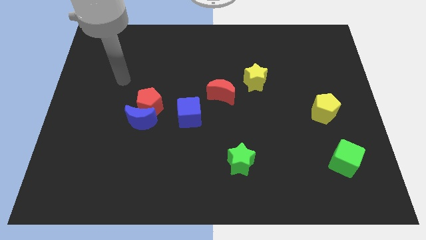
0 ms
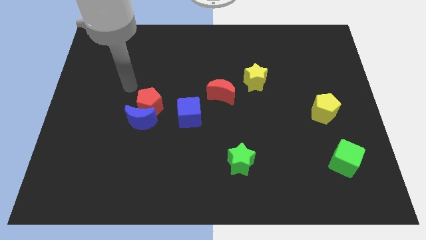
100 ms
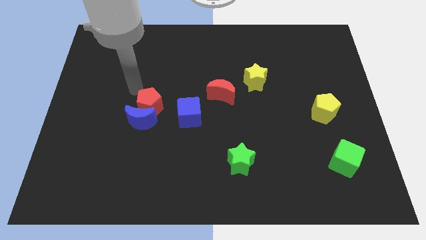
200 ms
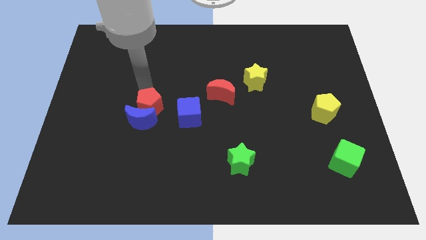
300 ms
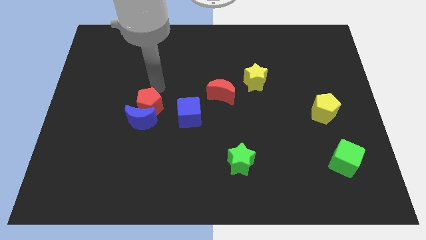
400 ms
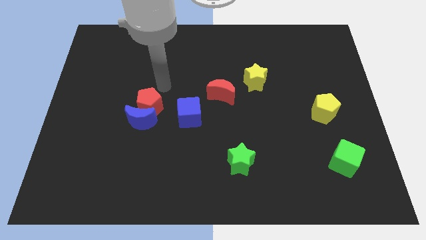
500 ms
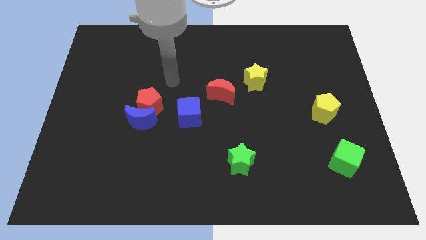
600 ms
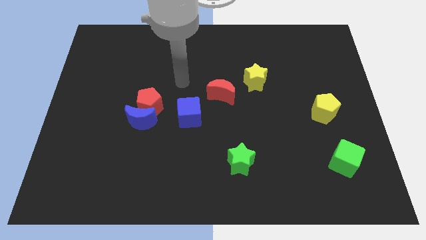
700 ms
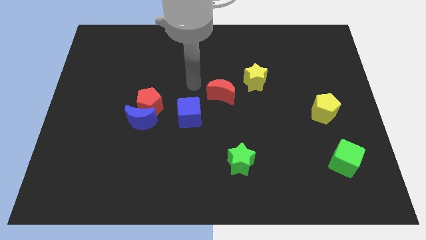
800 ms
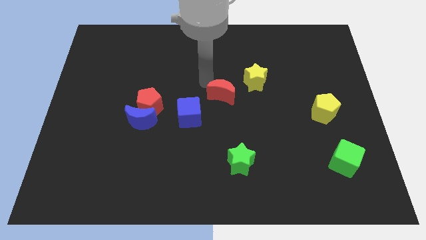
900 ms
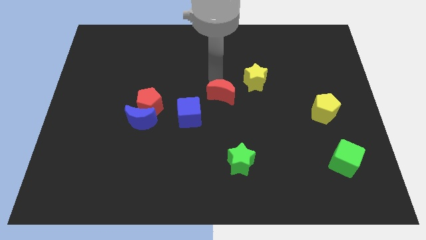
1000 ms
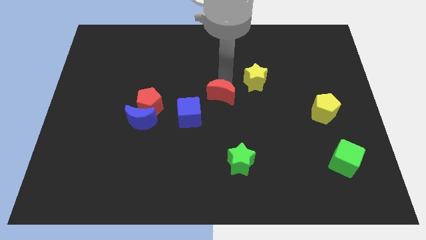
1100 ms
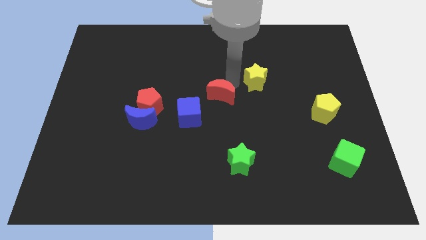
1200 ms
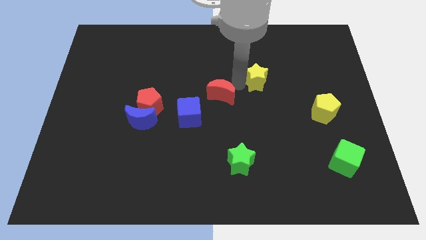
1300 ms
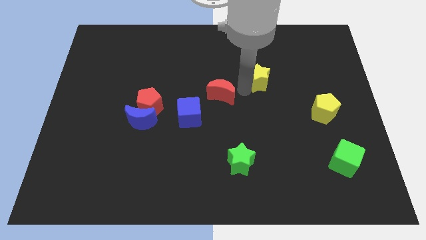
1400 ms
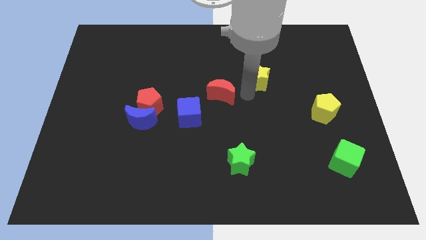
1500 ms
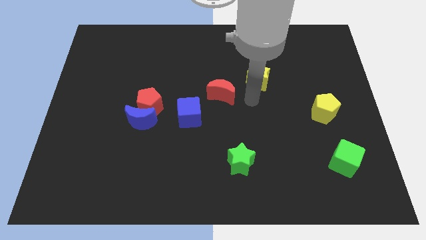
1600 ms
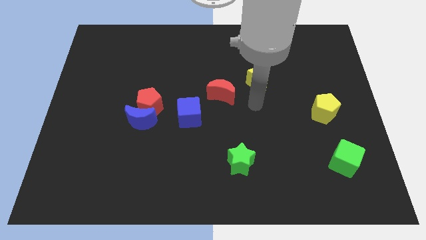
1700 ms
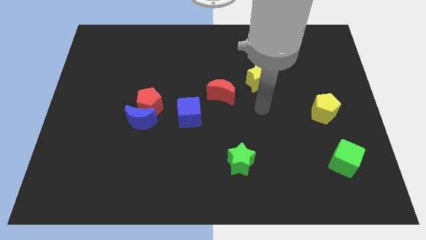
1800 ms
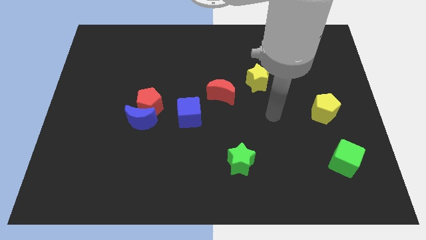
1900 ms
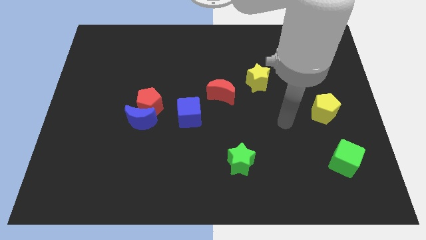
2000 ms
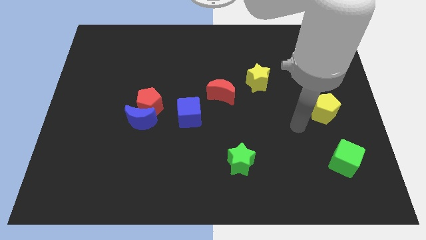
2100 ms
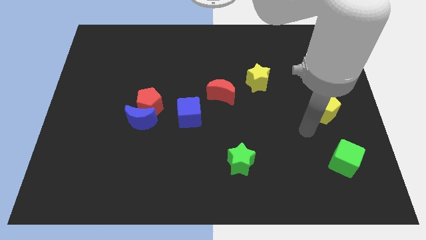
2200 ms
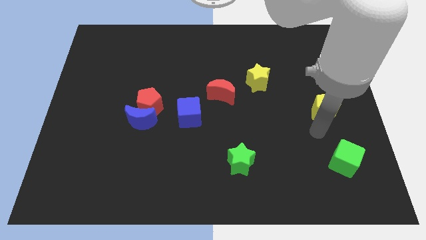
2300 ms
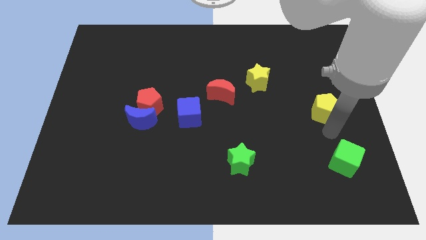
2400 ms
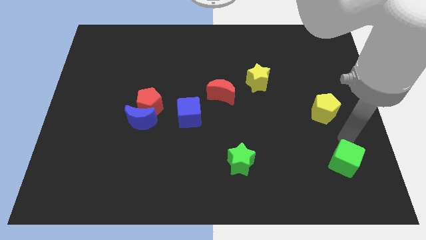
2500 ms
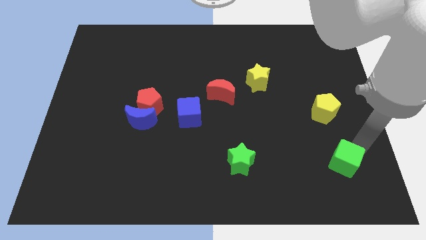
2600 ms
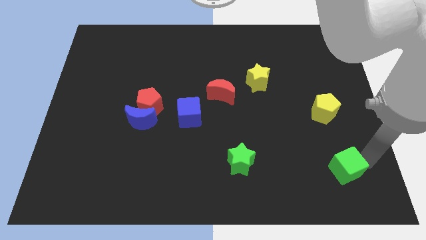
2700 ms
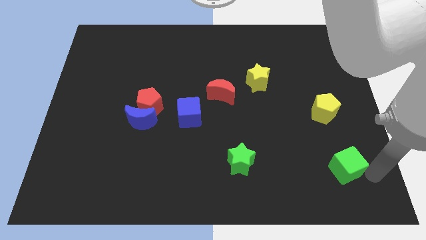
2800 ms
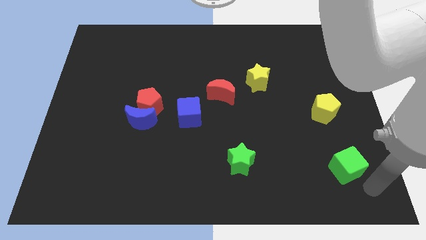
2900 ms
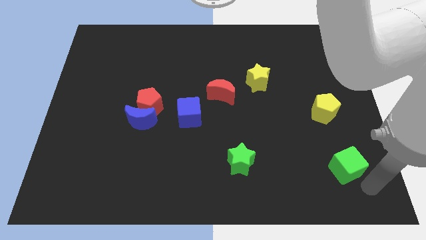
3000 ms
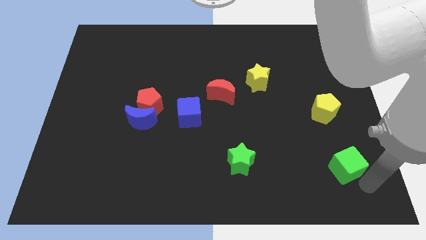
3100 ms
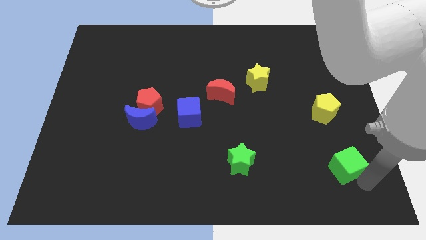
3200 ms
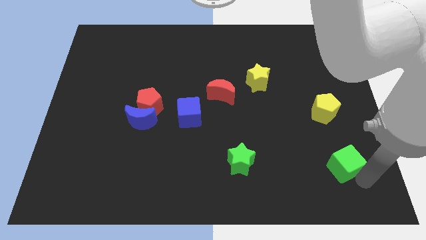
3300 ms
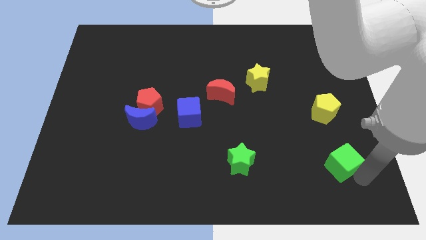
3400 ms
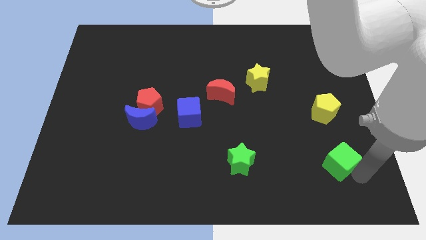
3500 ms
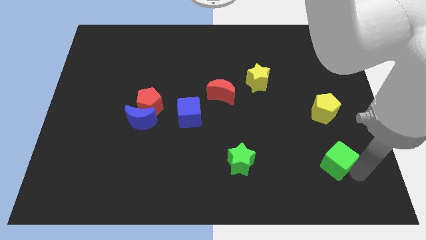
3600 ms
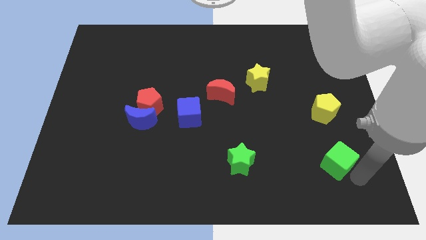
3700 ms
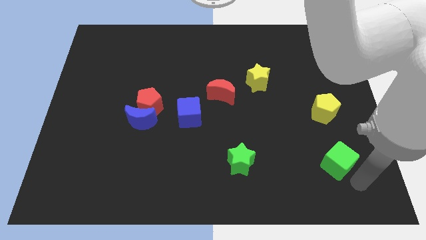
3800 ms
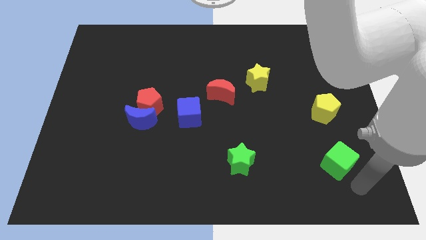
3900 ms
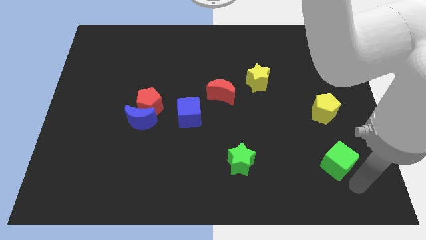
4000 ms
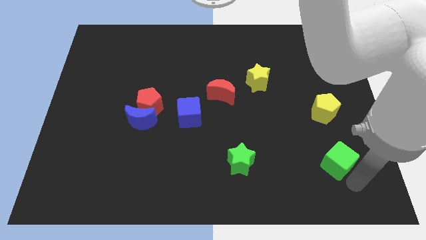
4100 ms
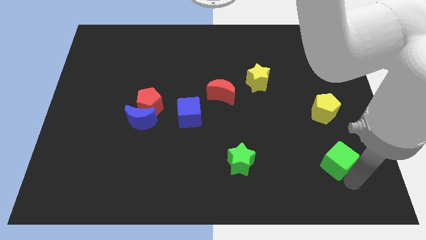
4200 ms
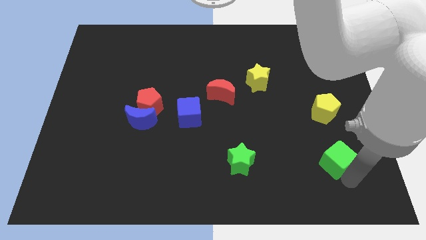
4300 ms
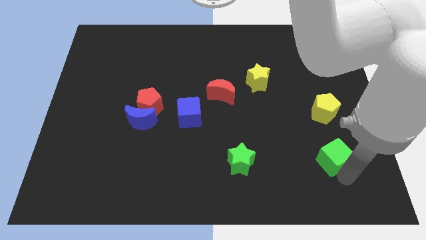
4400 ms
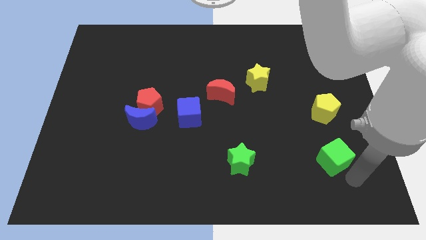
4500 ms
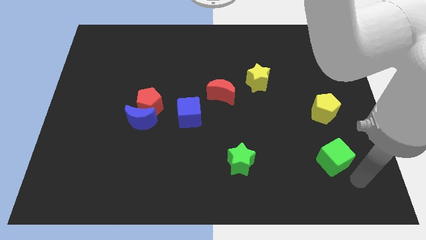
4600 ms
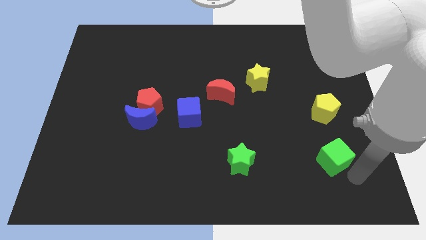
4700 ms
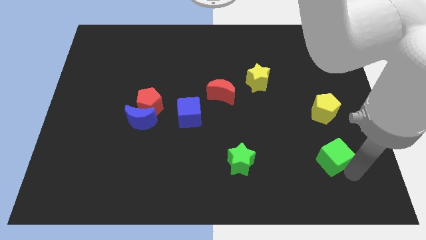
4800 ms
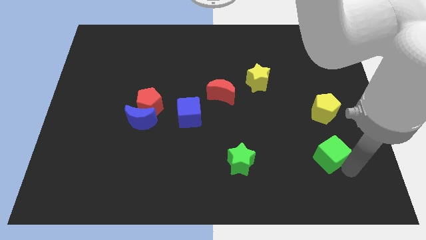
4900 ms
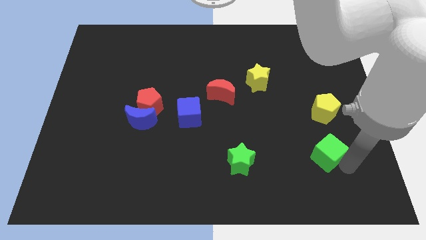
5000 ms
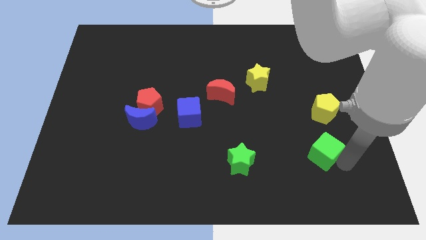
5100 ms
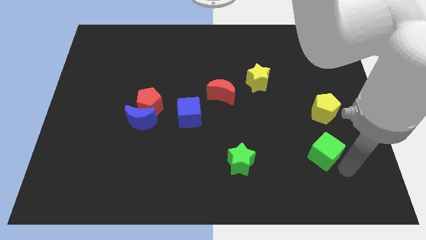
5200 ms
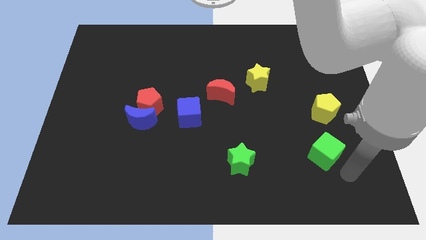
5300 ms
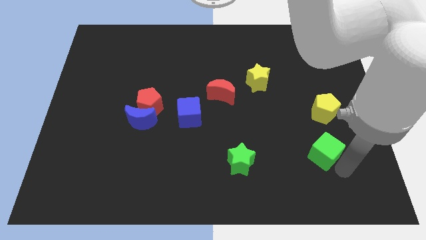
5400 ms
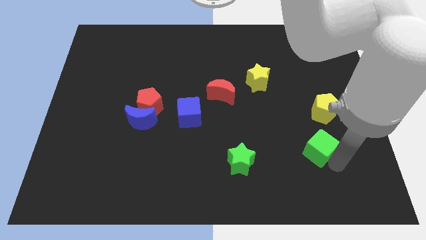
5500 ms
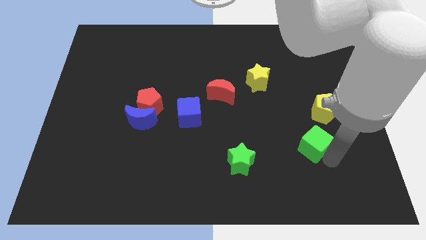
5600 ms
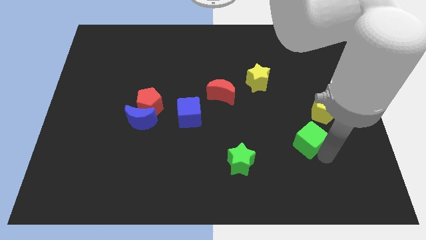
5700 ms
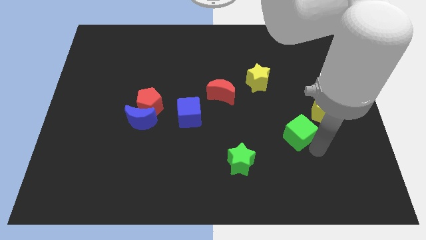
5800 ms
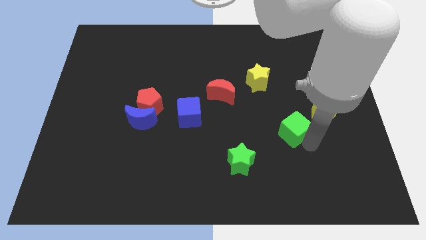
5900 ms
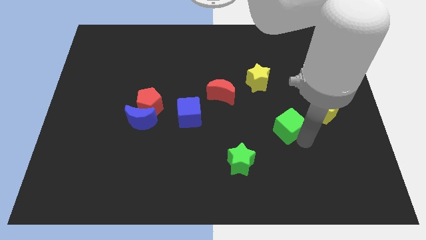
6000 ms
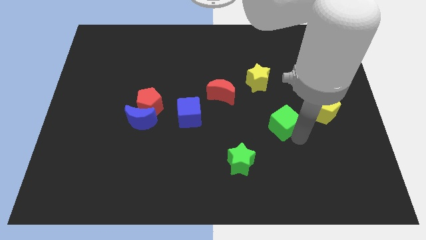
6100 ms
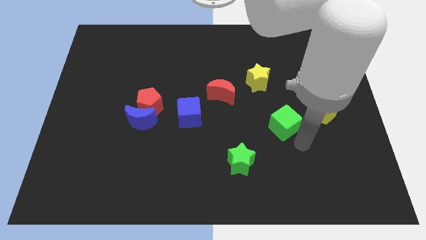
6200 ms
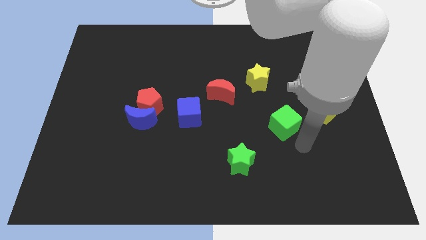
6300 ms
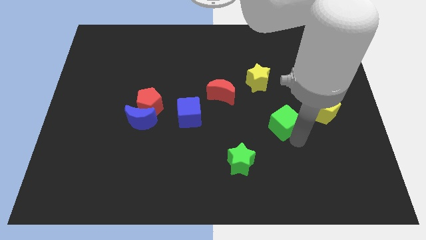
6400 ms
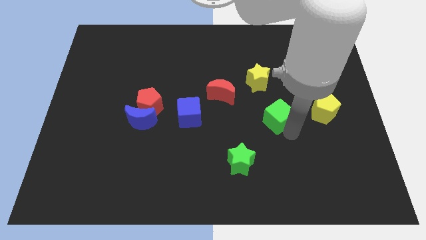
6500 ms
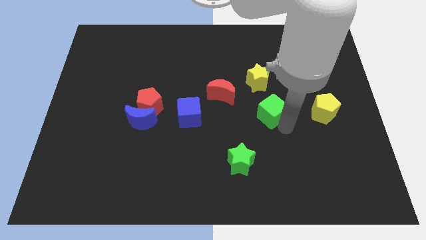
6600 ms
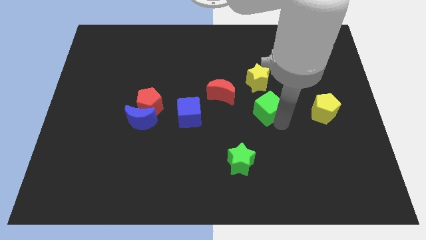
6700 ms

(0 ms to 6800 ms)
move the green cube up and to the left diagonally

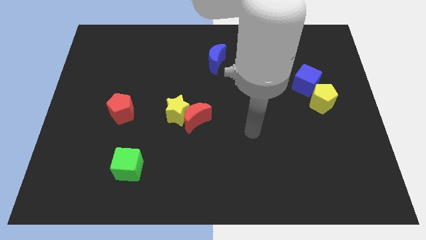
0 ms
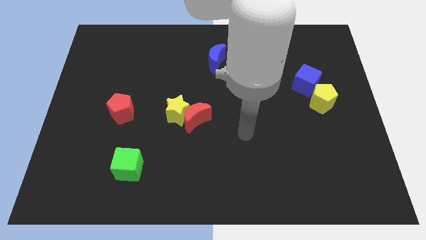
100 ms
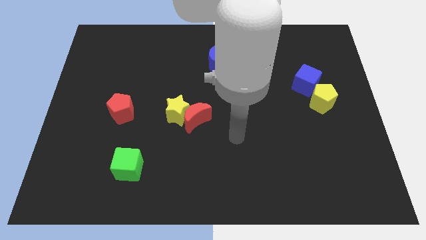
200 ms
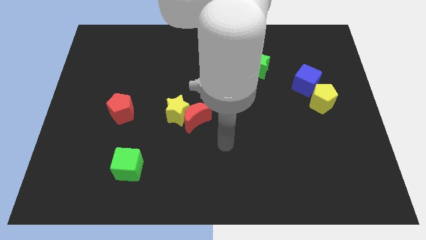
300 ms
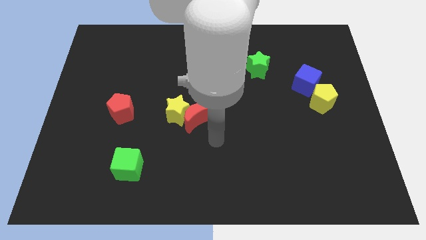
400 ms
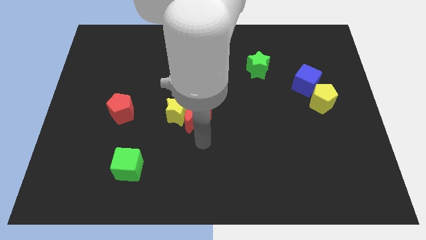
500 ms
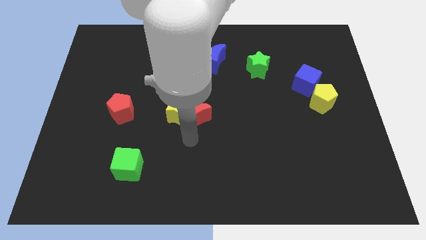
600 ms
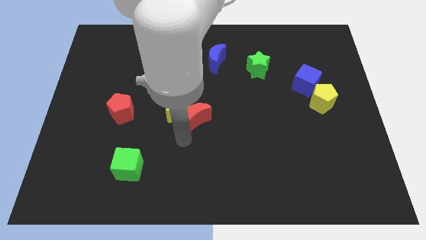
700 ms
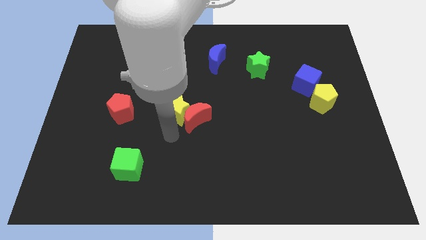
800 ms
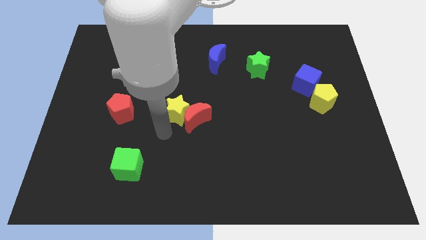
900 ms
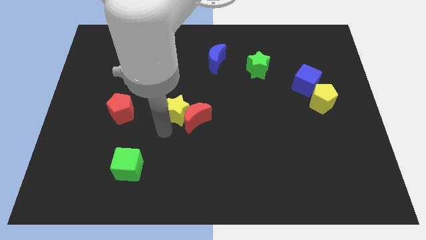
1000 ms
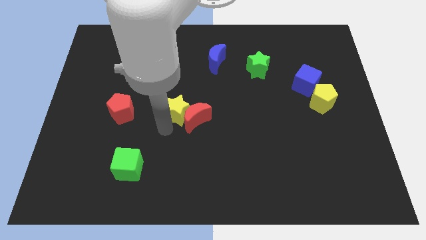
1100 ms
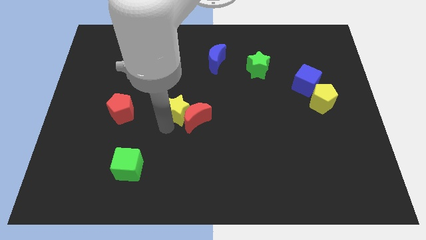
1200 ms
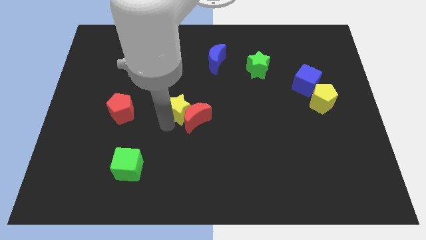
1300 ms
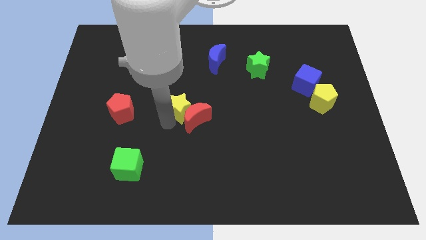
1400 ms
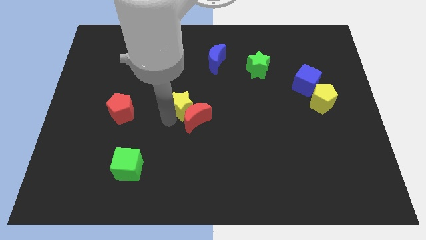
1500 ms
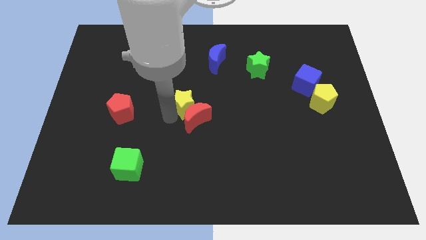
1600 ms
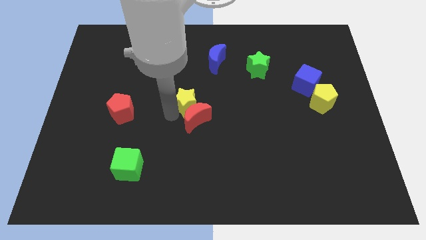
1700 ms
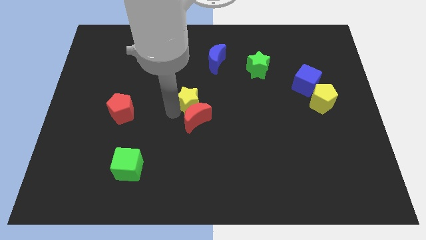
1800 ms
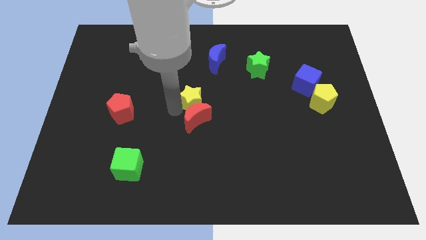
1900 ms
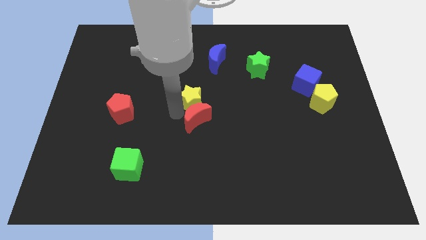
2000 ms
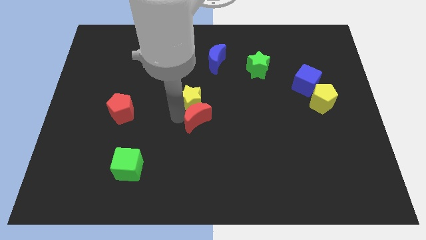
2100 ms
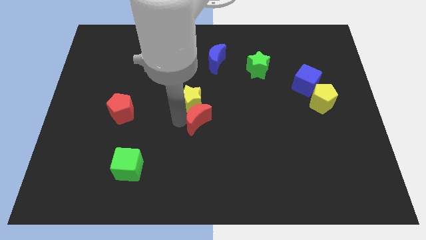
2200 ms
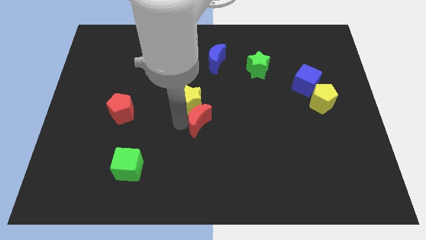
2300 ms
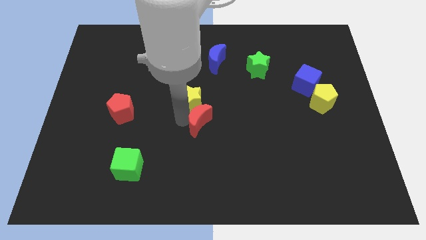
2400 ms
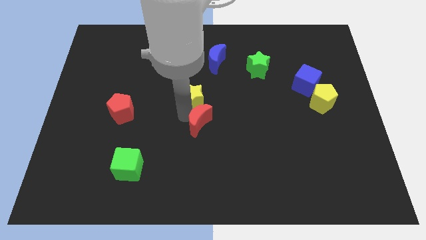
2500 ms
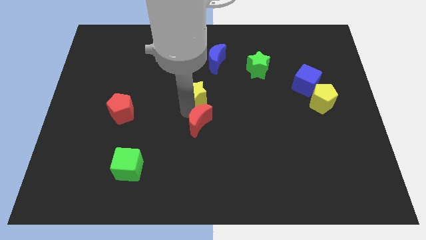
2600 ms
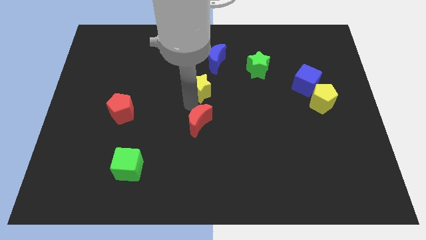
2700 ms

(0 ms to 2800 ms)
slightly move the yellow star upwards and then right
